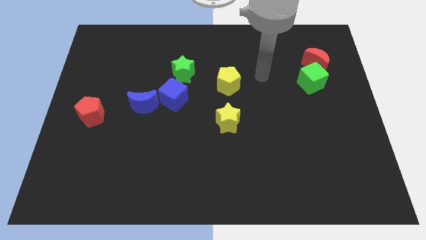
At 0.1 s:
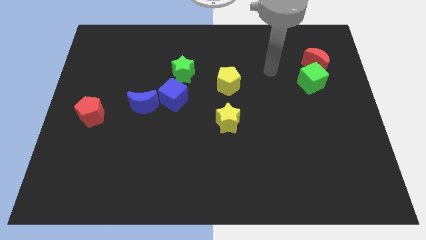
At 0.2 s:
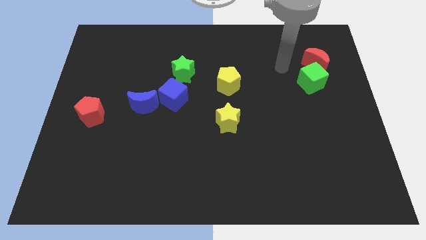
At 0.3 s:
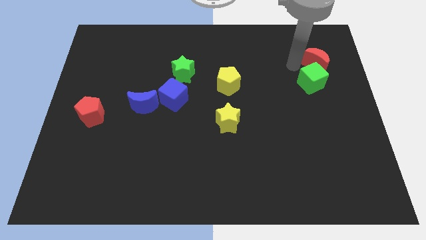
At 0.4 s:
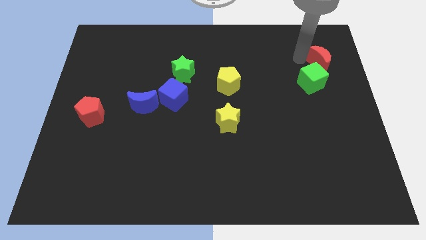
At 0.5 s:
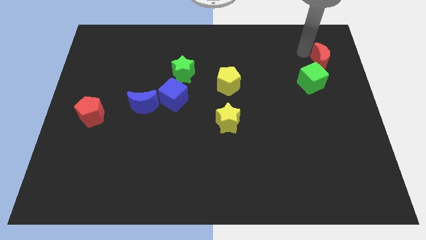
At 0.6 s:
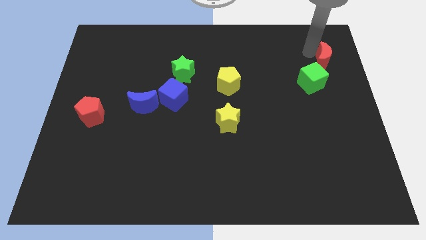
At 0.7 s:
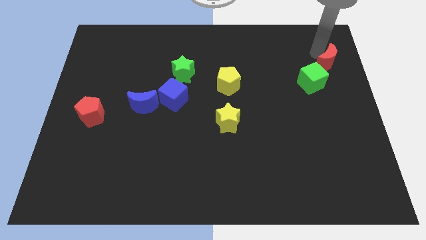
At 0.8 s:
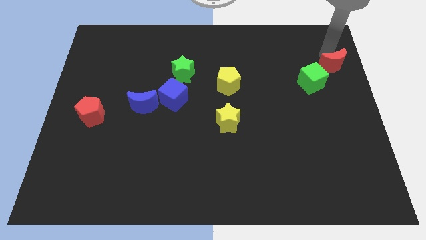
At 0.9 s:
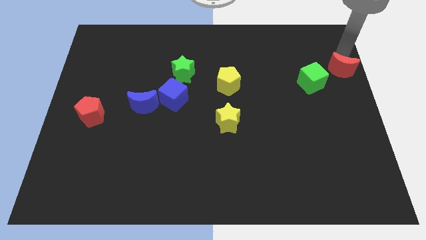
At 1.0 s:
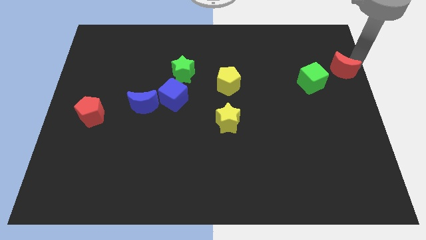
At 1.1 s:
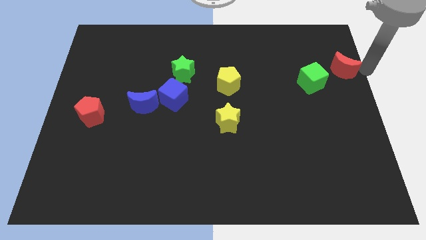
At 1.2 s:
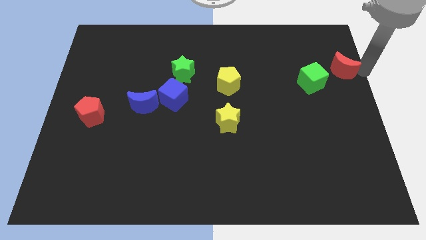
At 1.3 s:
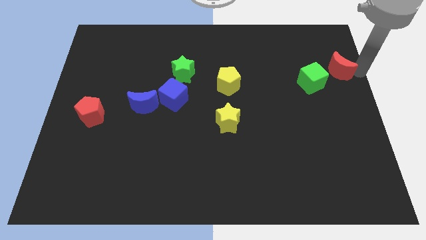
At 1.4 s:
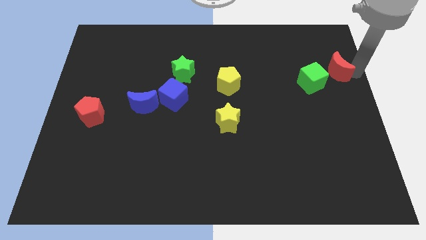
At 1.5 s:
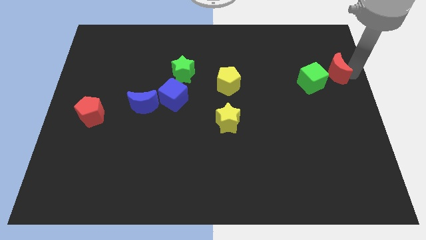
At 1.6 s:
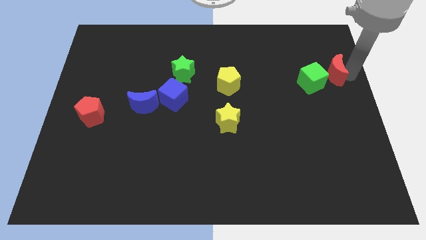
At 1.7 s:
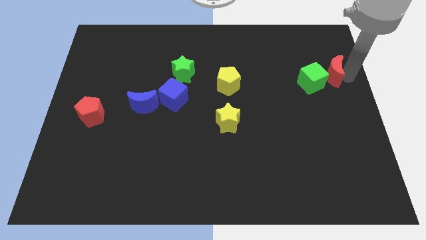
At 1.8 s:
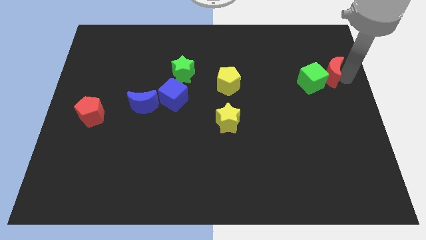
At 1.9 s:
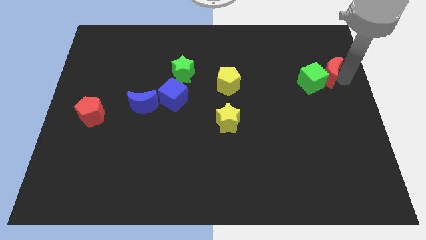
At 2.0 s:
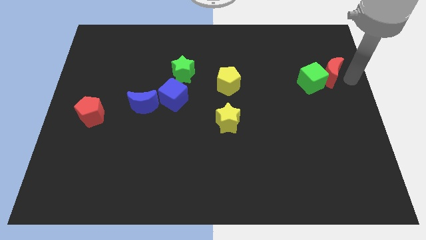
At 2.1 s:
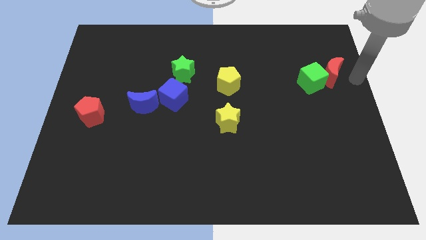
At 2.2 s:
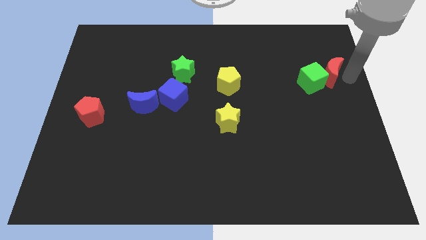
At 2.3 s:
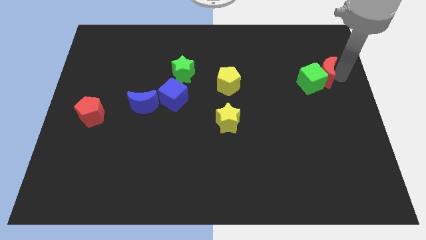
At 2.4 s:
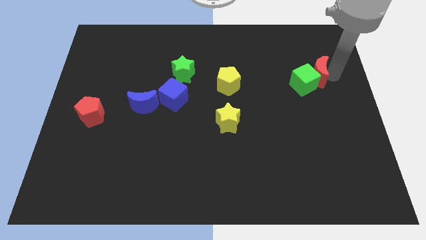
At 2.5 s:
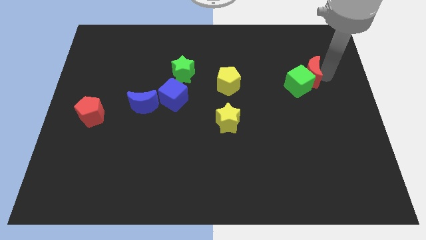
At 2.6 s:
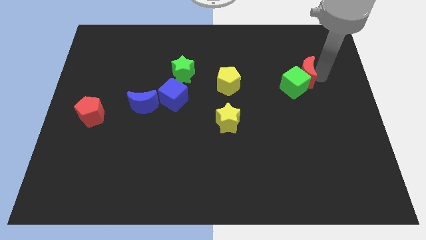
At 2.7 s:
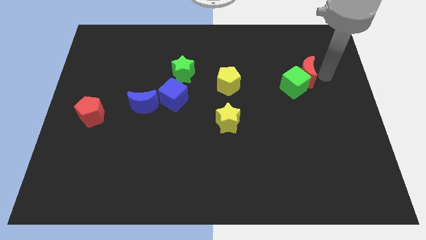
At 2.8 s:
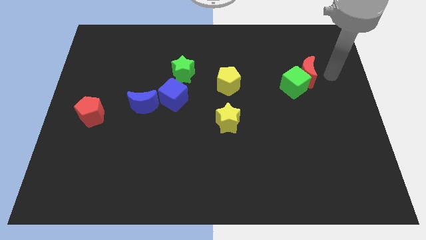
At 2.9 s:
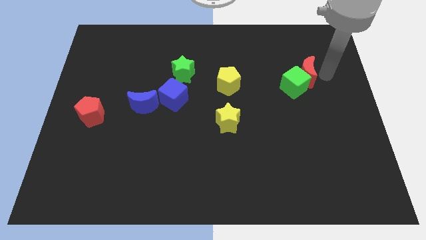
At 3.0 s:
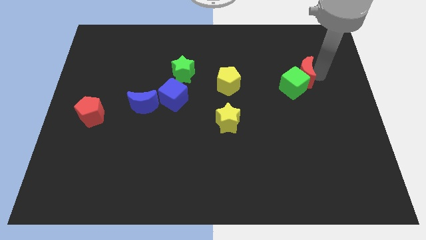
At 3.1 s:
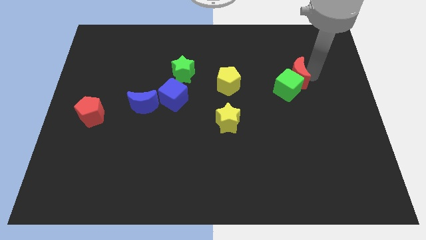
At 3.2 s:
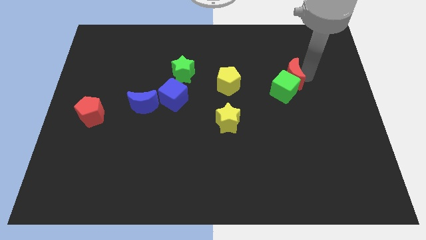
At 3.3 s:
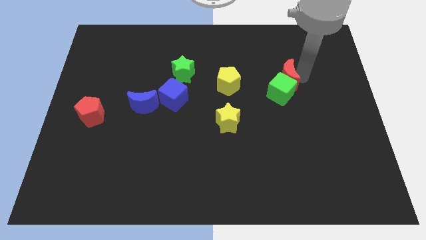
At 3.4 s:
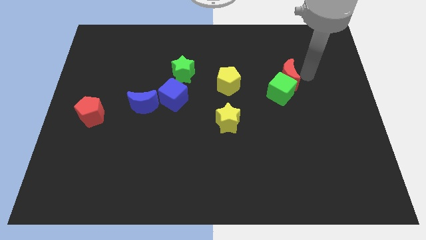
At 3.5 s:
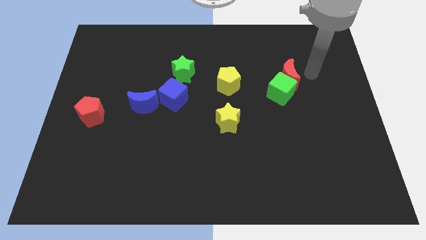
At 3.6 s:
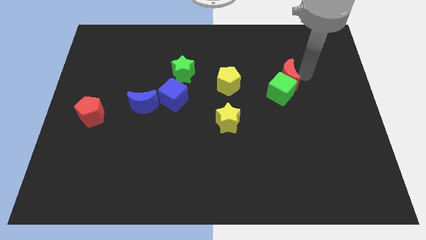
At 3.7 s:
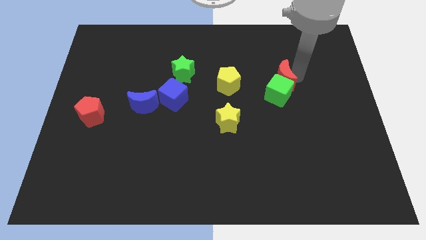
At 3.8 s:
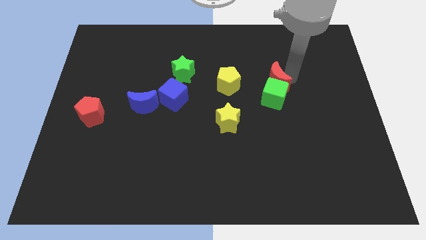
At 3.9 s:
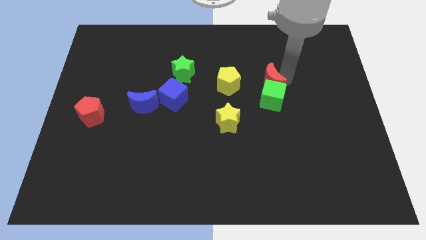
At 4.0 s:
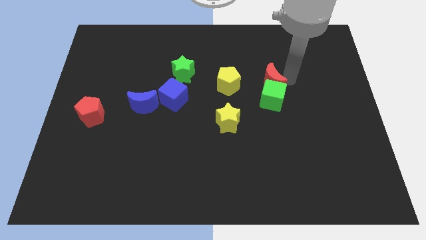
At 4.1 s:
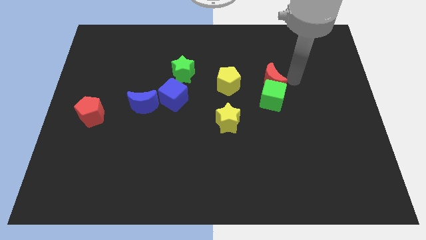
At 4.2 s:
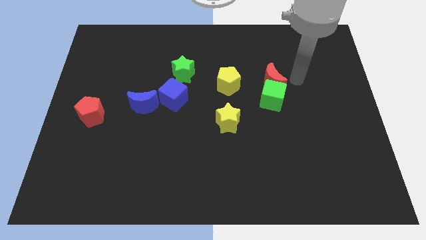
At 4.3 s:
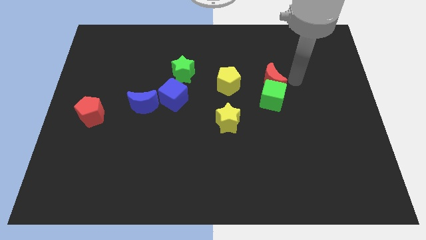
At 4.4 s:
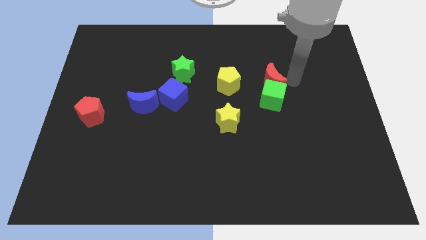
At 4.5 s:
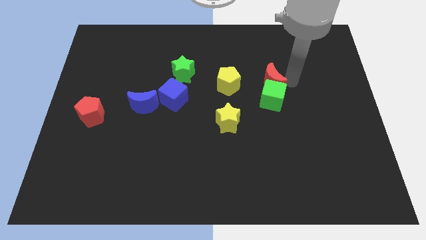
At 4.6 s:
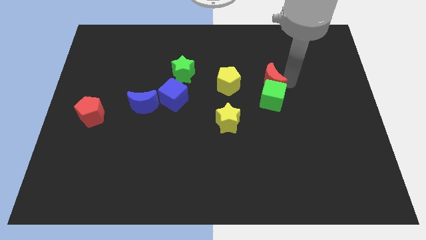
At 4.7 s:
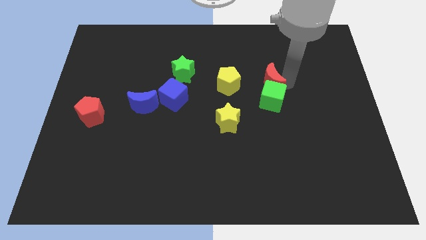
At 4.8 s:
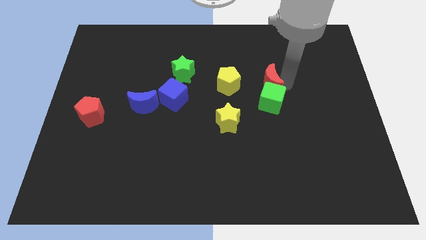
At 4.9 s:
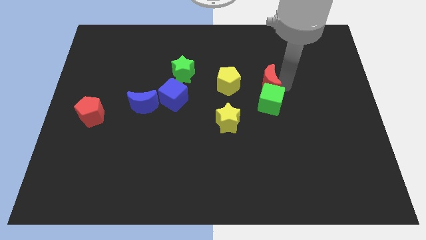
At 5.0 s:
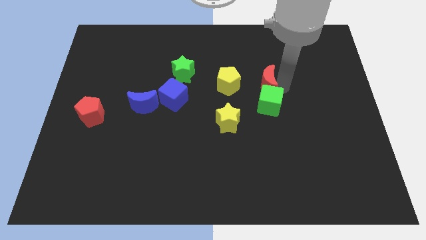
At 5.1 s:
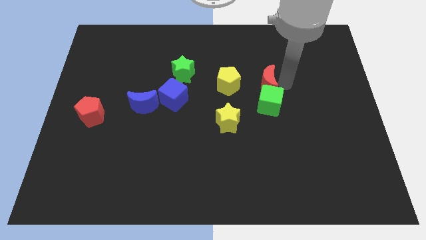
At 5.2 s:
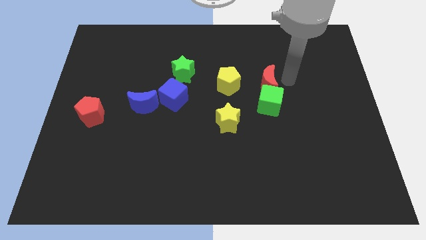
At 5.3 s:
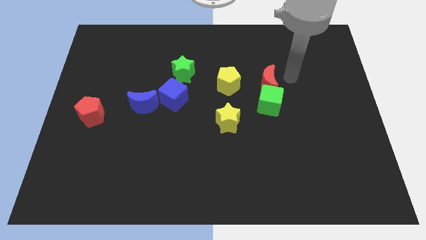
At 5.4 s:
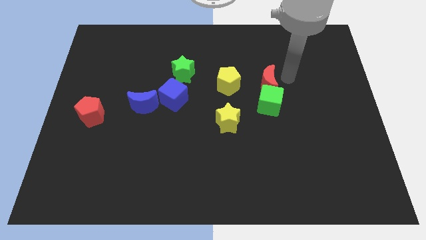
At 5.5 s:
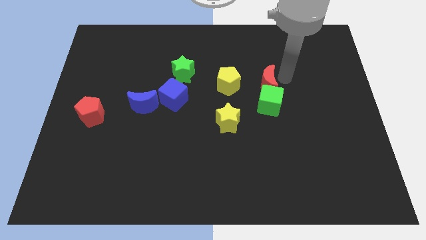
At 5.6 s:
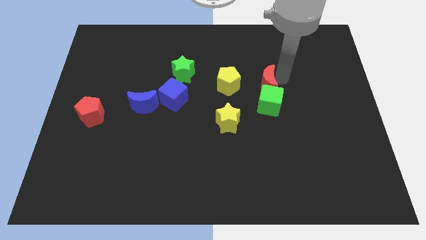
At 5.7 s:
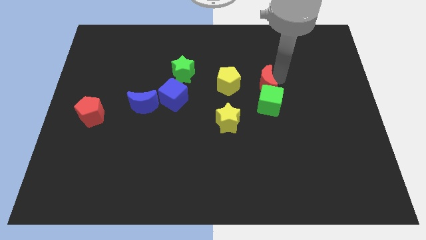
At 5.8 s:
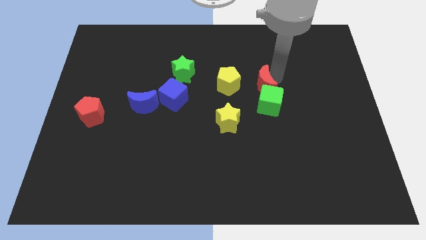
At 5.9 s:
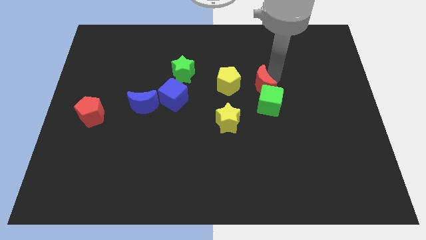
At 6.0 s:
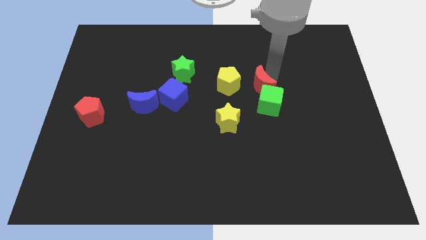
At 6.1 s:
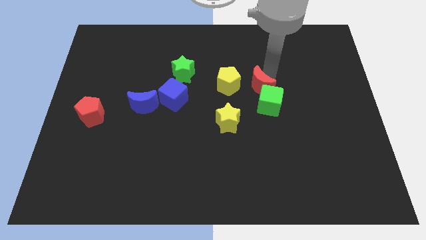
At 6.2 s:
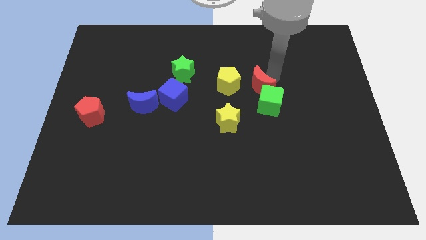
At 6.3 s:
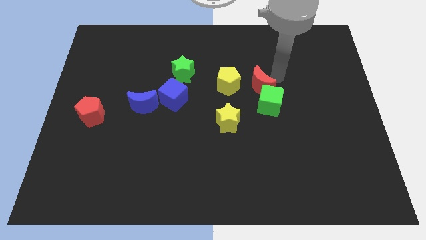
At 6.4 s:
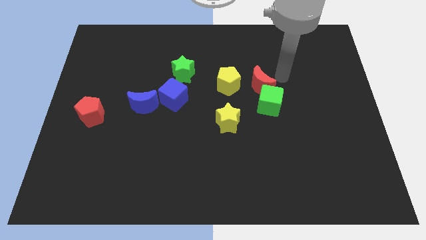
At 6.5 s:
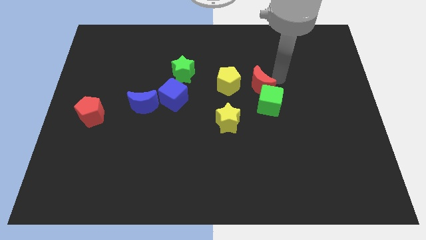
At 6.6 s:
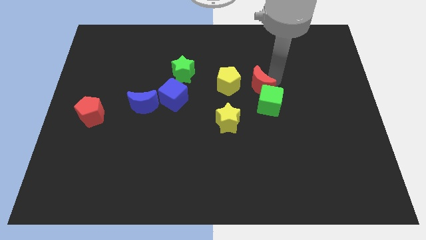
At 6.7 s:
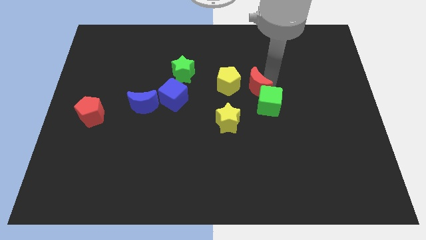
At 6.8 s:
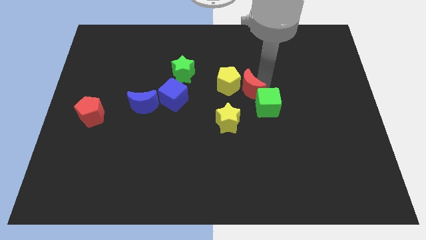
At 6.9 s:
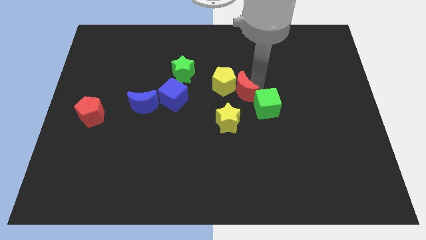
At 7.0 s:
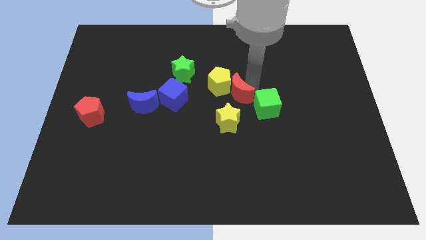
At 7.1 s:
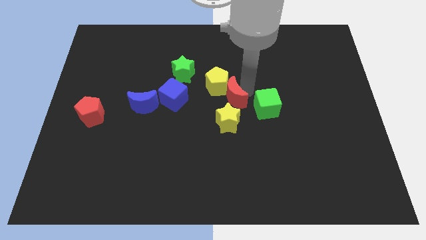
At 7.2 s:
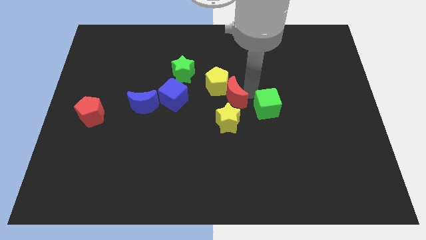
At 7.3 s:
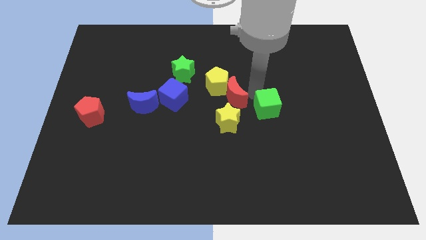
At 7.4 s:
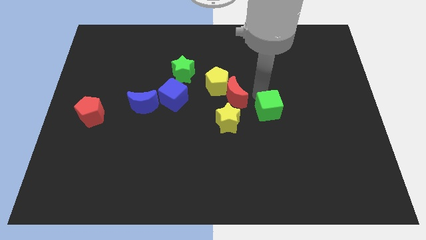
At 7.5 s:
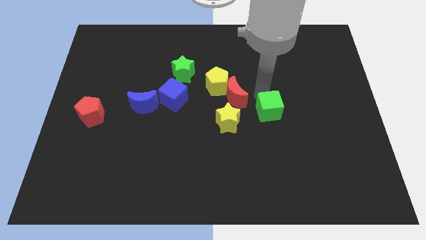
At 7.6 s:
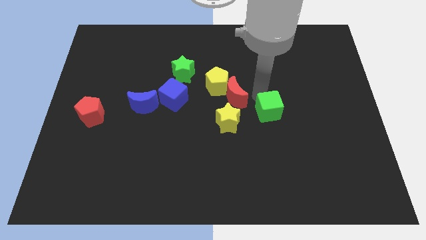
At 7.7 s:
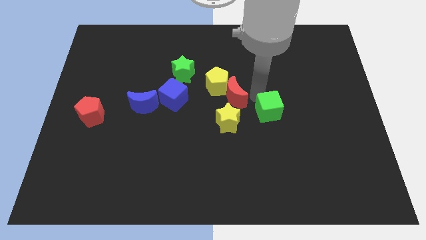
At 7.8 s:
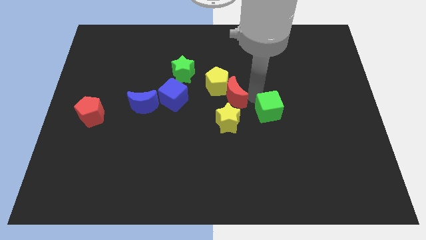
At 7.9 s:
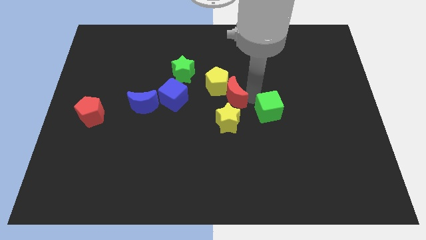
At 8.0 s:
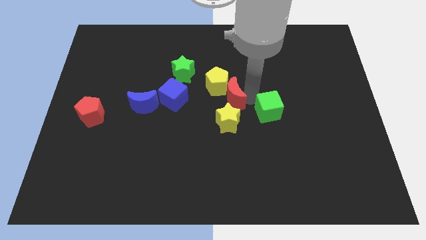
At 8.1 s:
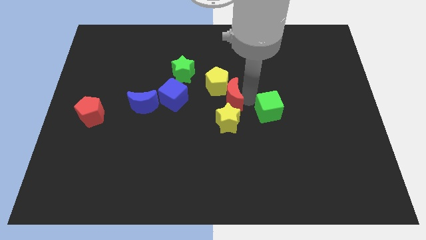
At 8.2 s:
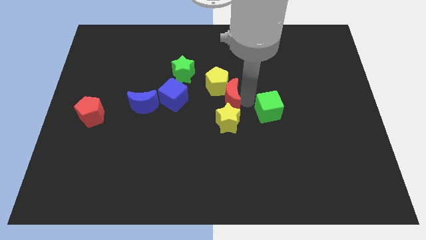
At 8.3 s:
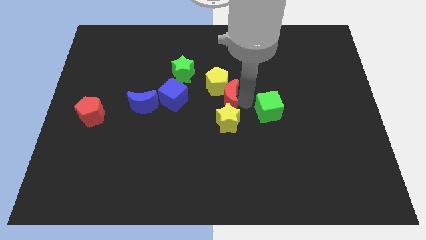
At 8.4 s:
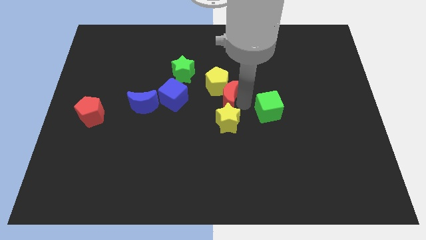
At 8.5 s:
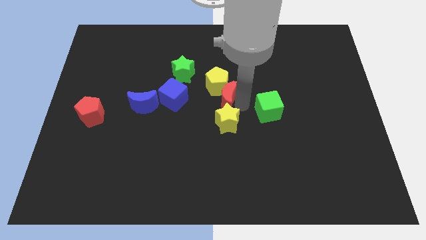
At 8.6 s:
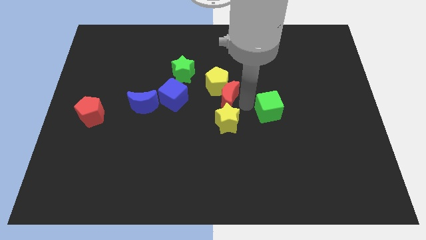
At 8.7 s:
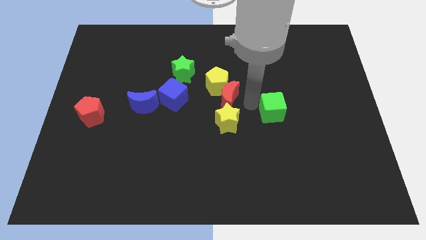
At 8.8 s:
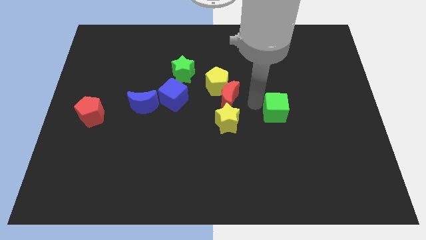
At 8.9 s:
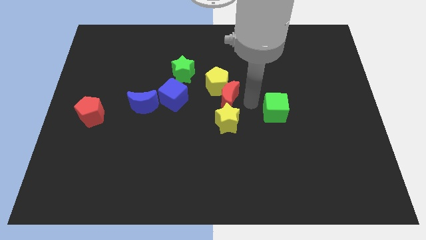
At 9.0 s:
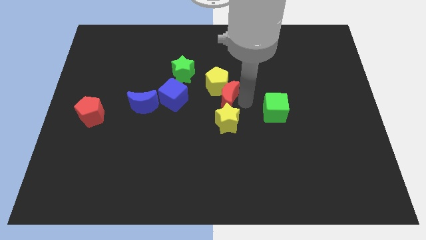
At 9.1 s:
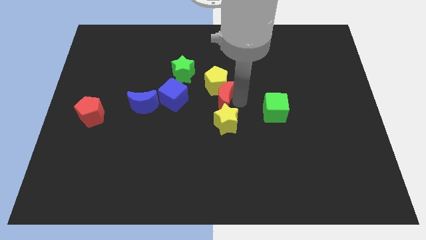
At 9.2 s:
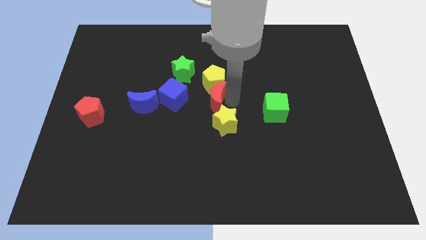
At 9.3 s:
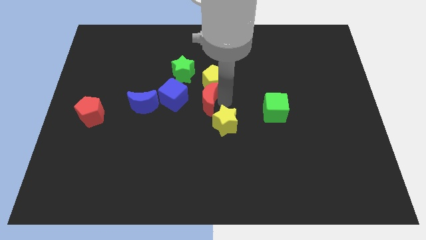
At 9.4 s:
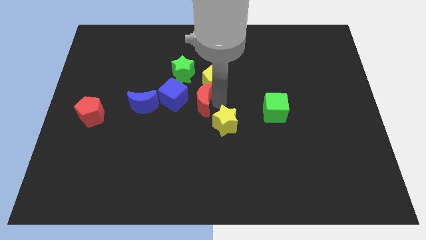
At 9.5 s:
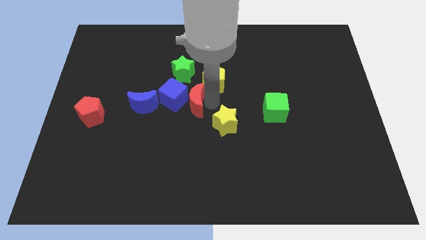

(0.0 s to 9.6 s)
put the red moon next to the blue cube
